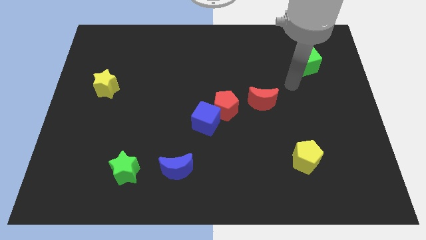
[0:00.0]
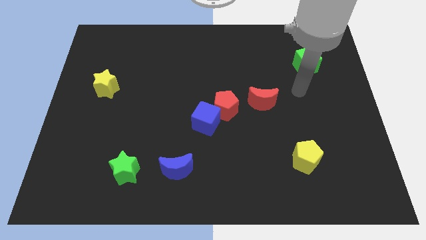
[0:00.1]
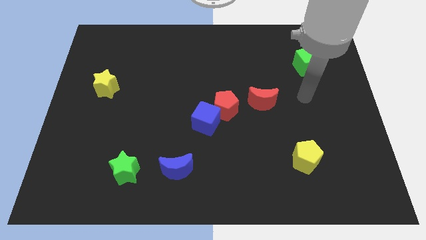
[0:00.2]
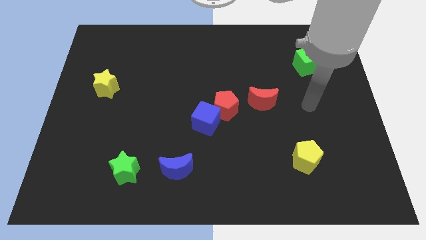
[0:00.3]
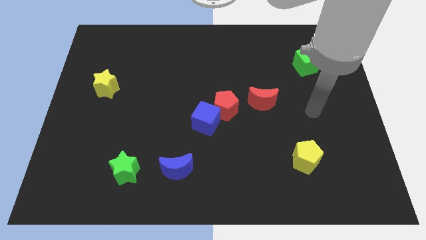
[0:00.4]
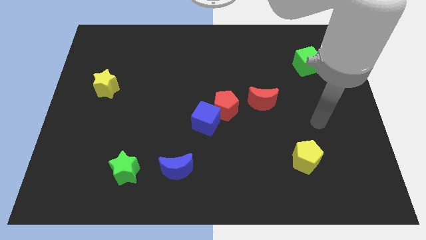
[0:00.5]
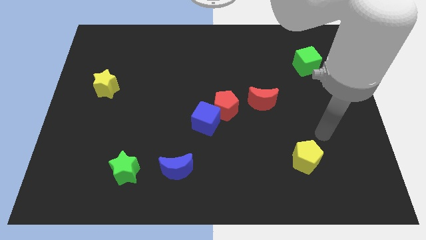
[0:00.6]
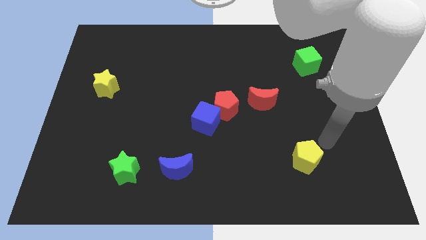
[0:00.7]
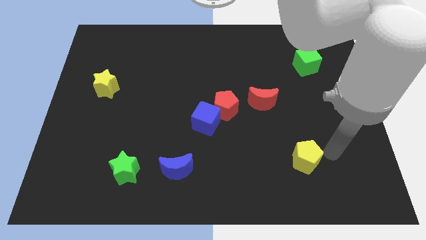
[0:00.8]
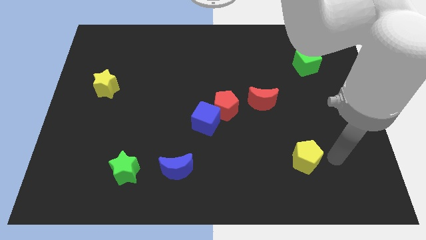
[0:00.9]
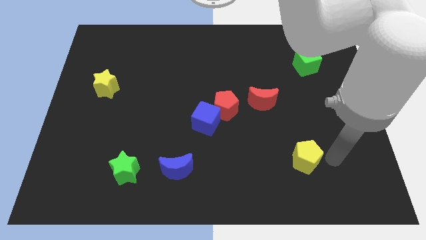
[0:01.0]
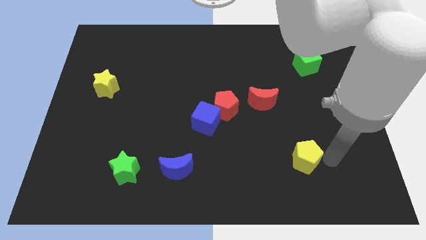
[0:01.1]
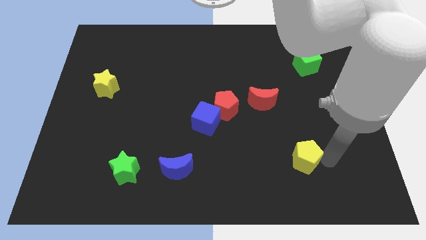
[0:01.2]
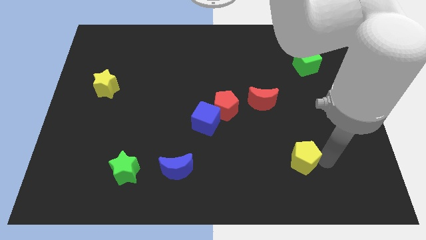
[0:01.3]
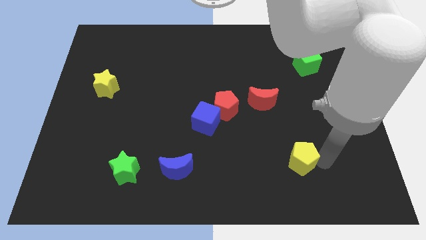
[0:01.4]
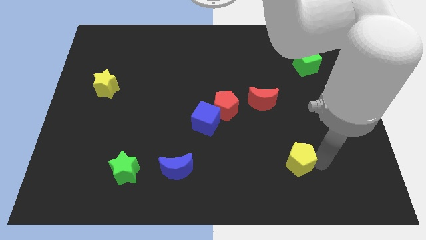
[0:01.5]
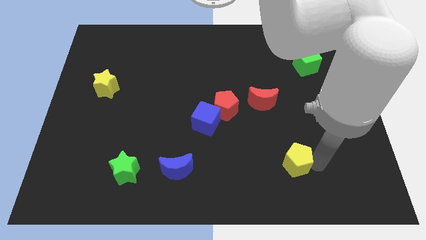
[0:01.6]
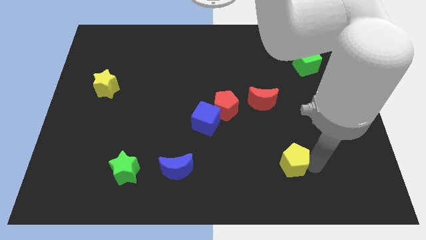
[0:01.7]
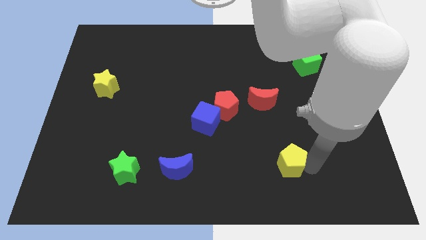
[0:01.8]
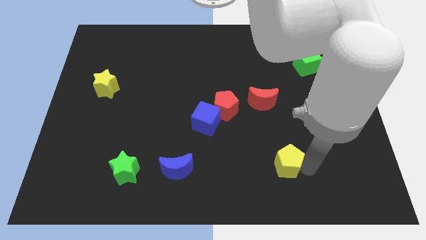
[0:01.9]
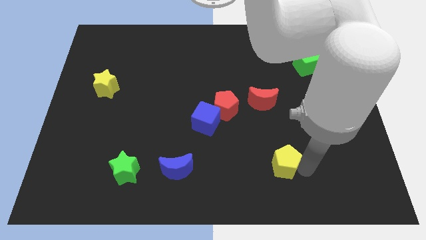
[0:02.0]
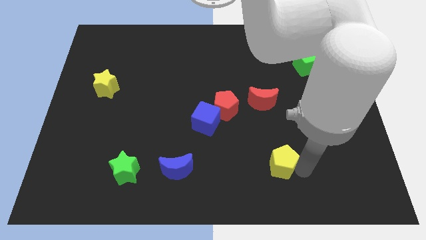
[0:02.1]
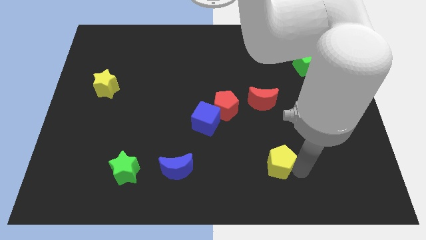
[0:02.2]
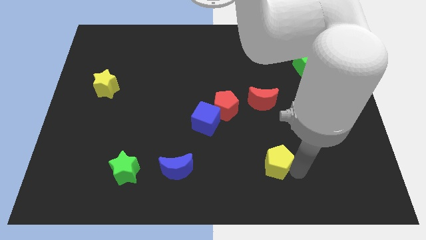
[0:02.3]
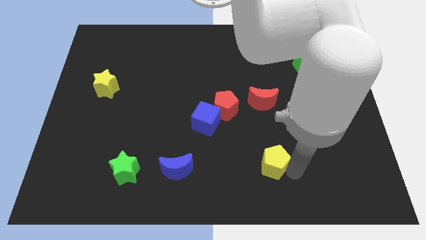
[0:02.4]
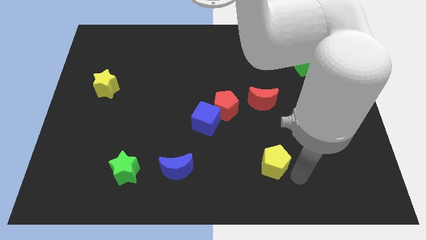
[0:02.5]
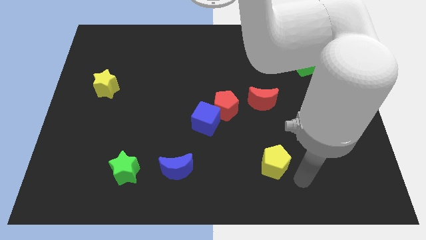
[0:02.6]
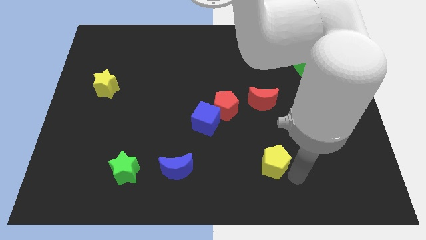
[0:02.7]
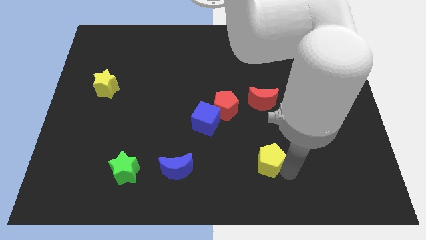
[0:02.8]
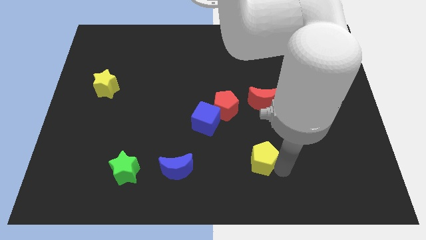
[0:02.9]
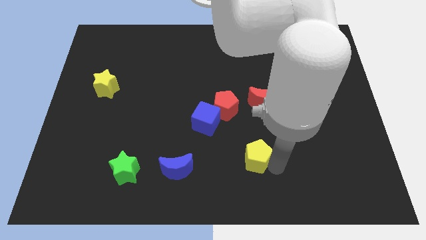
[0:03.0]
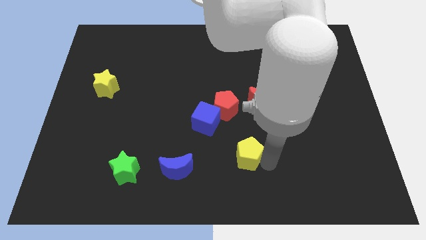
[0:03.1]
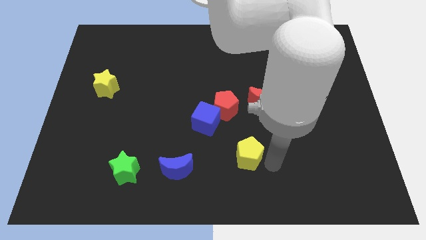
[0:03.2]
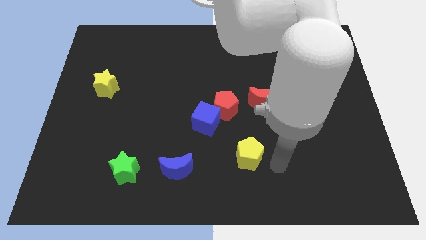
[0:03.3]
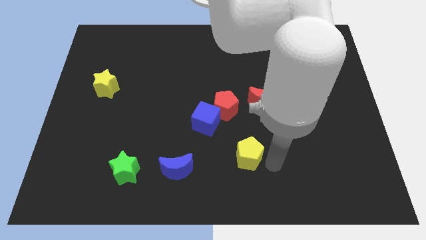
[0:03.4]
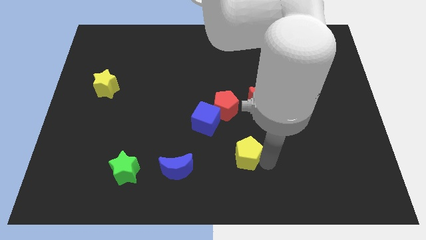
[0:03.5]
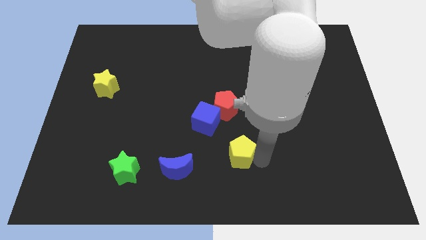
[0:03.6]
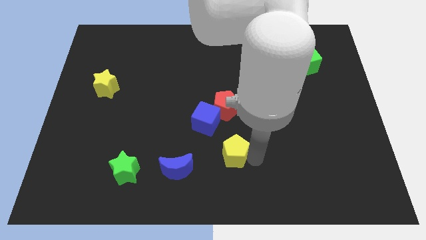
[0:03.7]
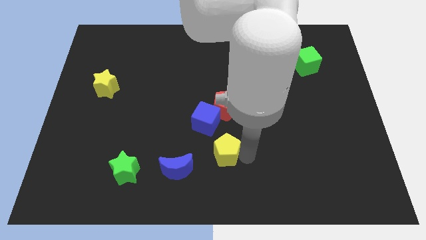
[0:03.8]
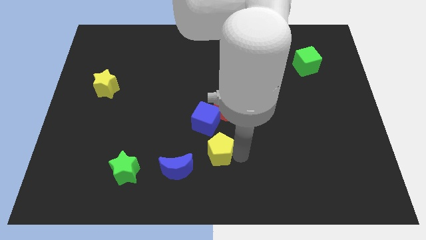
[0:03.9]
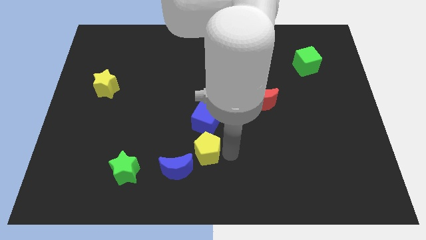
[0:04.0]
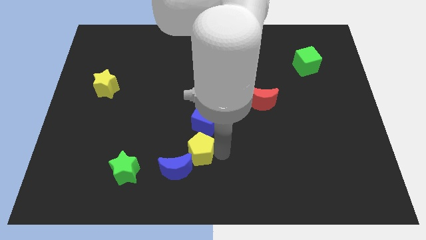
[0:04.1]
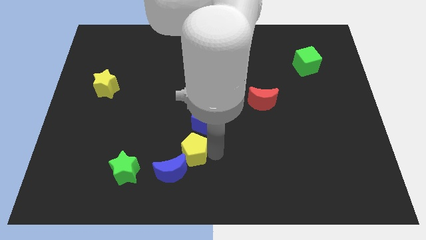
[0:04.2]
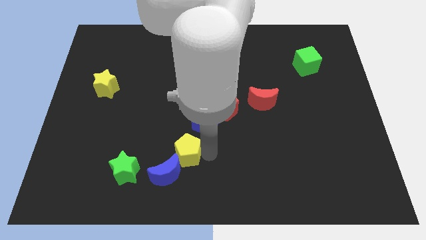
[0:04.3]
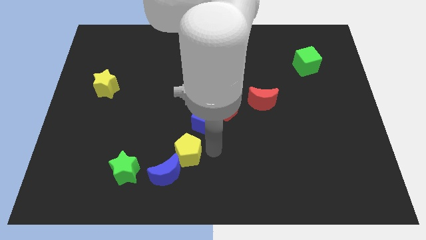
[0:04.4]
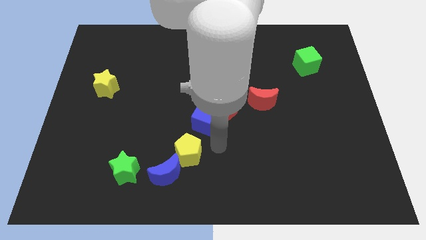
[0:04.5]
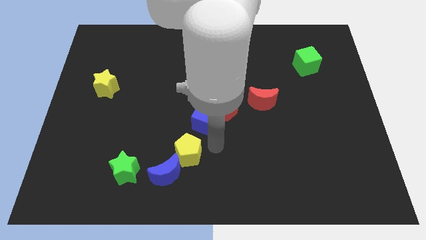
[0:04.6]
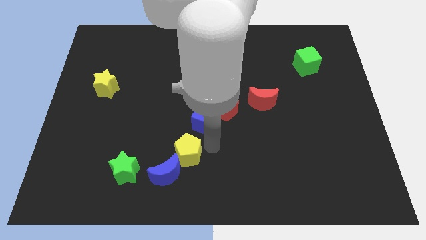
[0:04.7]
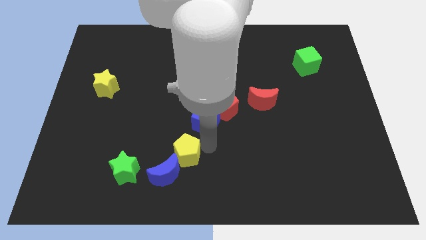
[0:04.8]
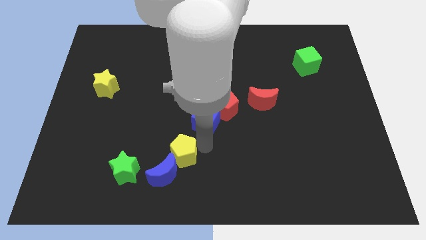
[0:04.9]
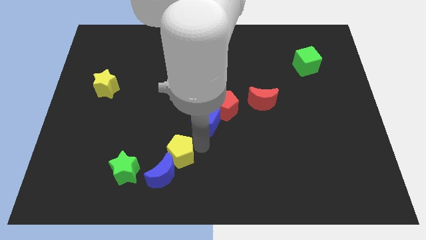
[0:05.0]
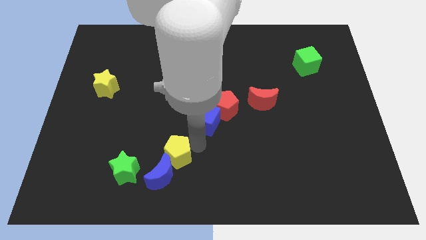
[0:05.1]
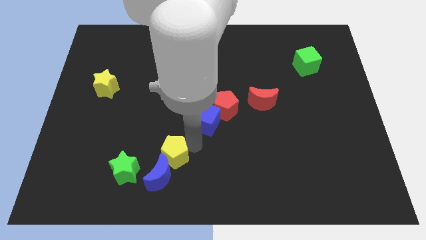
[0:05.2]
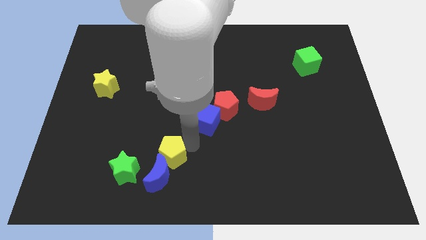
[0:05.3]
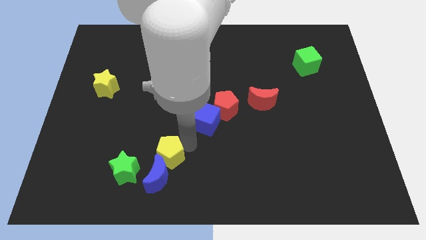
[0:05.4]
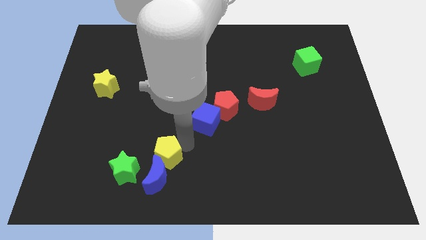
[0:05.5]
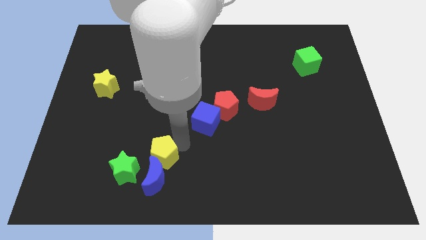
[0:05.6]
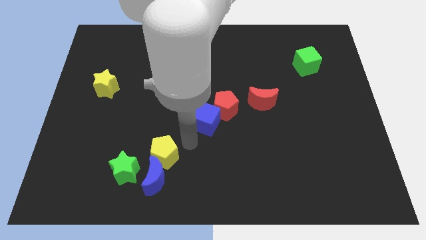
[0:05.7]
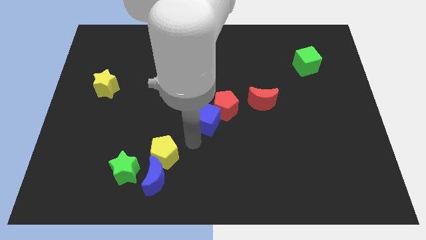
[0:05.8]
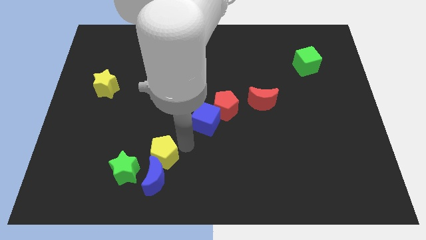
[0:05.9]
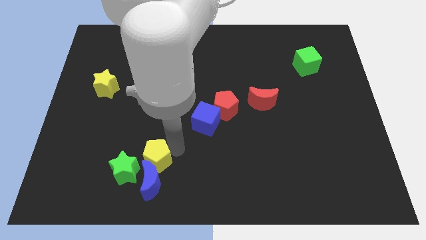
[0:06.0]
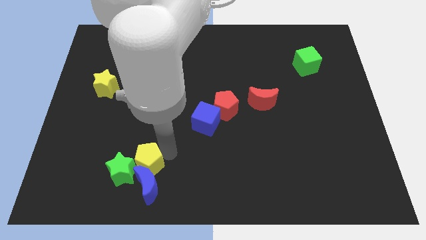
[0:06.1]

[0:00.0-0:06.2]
push the yellow pentagon to the green star

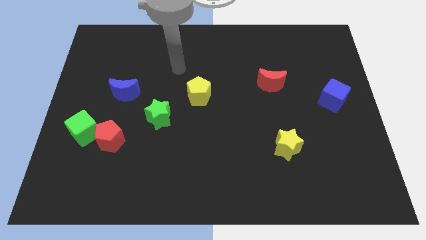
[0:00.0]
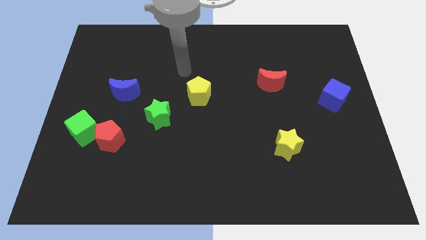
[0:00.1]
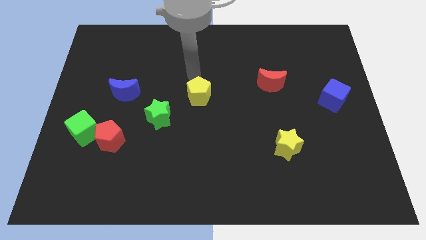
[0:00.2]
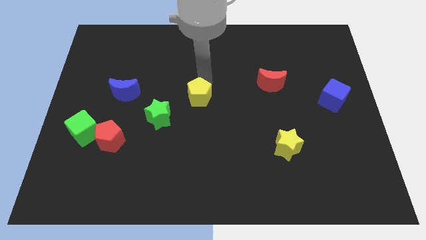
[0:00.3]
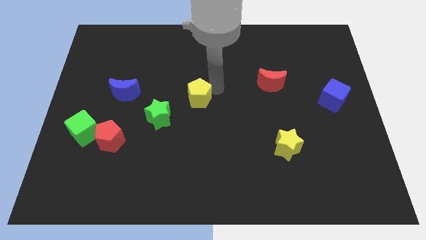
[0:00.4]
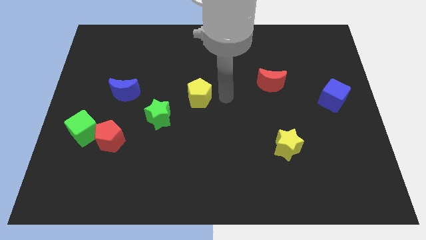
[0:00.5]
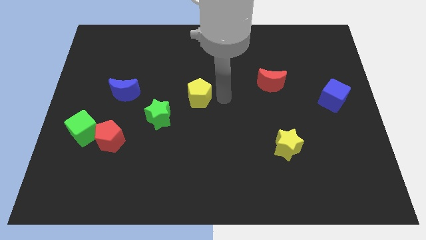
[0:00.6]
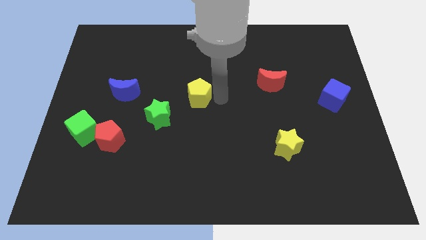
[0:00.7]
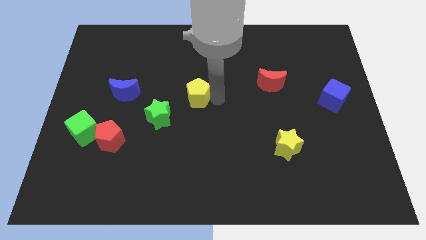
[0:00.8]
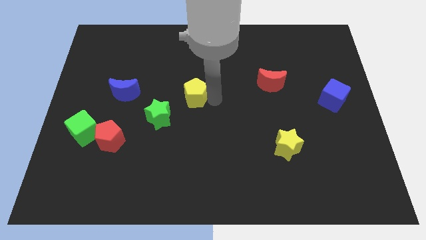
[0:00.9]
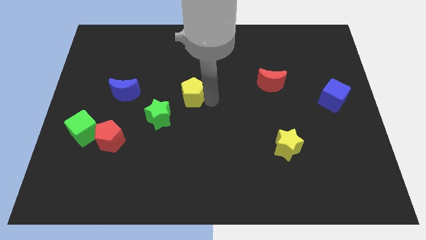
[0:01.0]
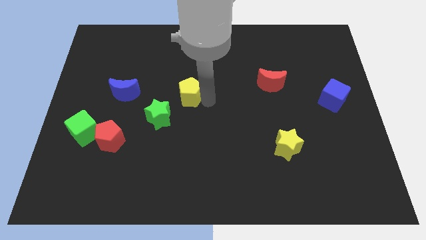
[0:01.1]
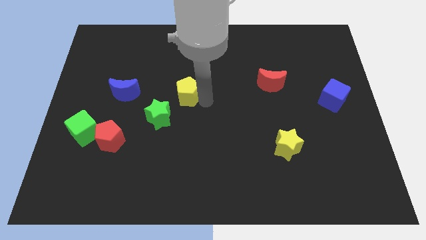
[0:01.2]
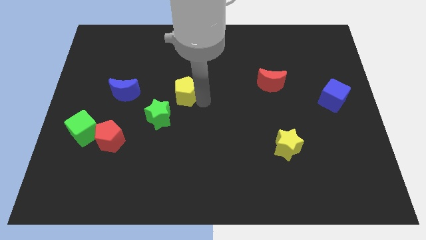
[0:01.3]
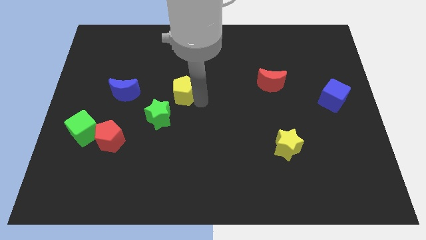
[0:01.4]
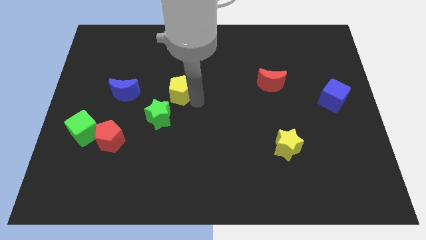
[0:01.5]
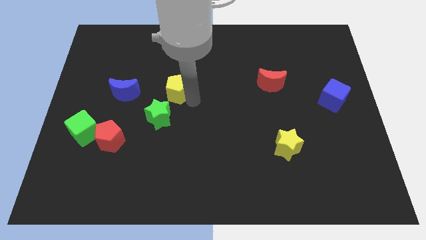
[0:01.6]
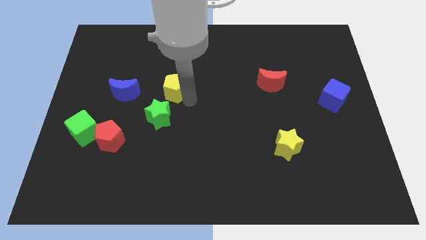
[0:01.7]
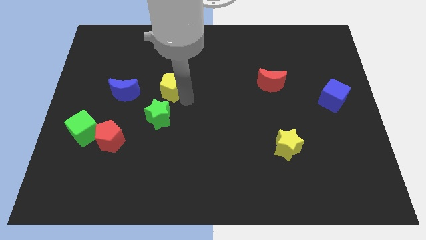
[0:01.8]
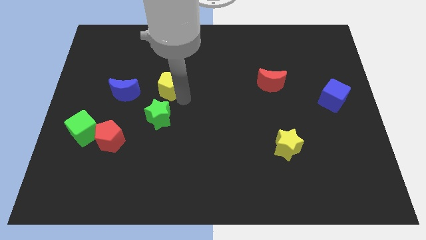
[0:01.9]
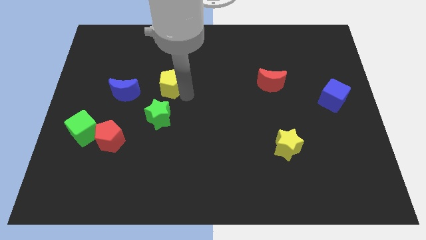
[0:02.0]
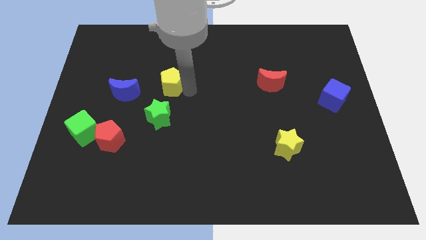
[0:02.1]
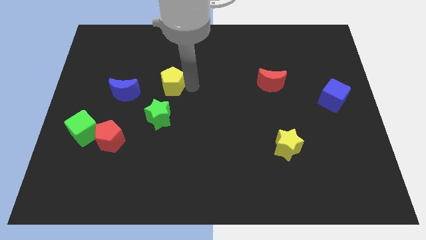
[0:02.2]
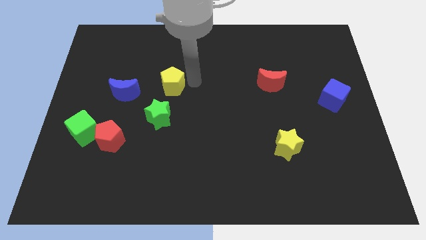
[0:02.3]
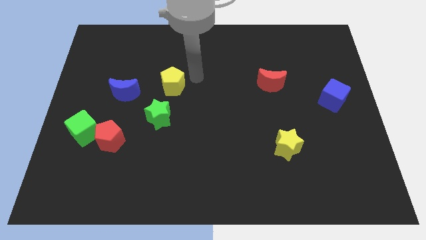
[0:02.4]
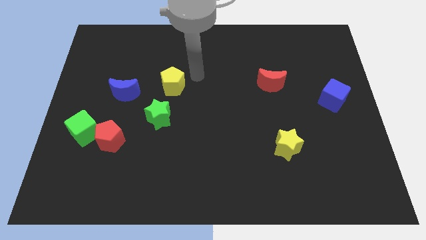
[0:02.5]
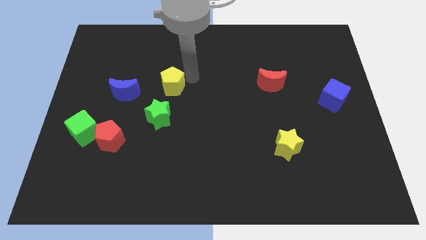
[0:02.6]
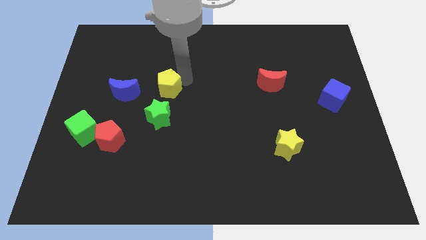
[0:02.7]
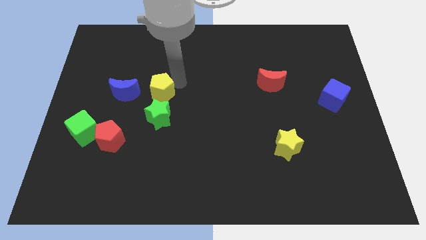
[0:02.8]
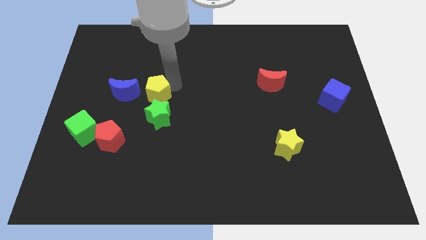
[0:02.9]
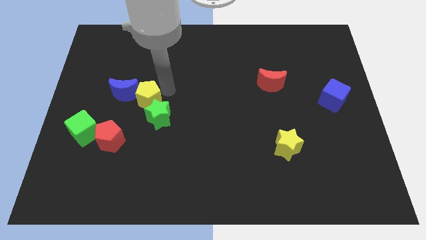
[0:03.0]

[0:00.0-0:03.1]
slide the yellow pentagon close to the blue moon
